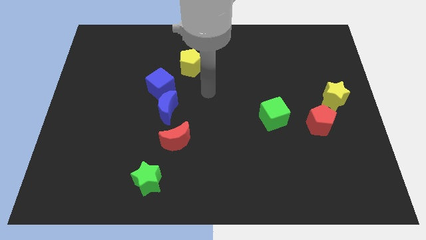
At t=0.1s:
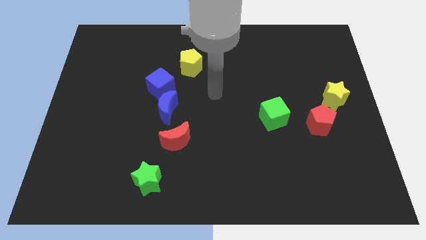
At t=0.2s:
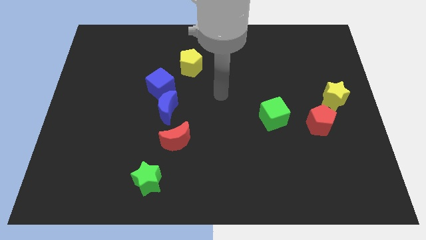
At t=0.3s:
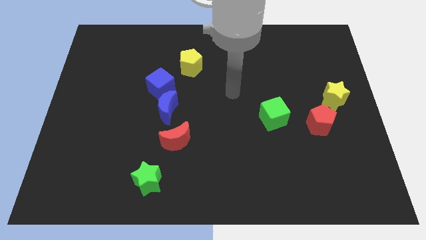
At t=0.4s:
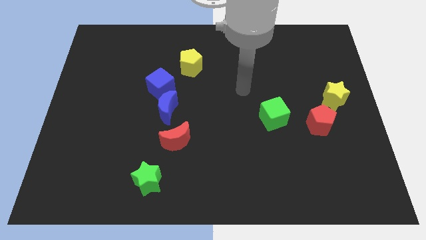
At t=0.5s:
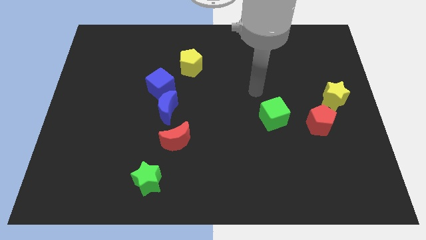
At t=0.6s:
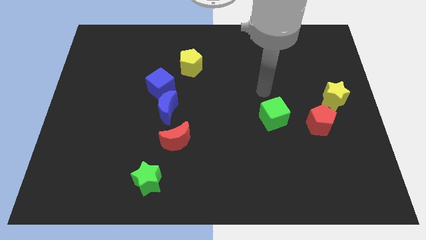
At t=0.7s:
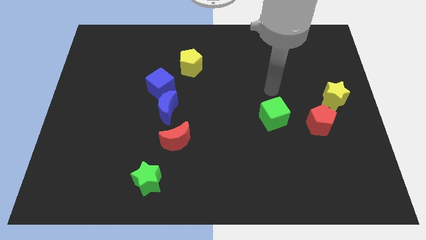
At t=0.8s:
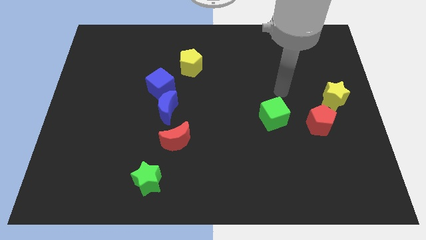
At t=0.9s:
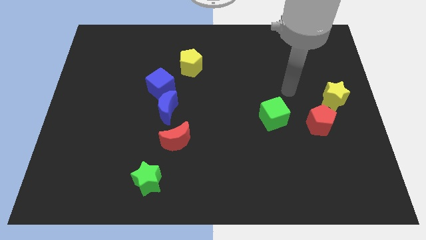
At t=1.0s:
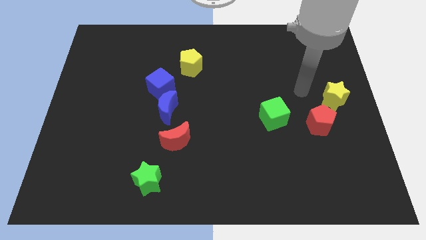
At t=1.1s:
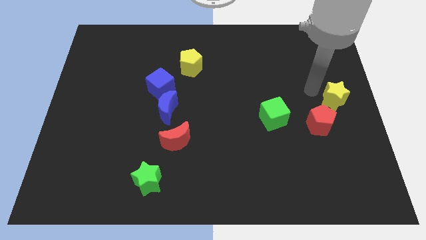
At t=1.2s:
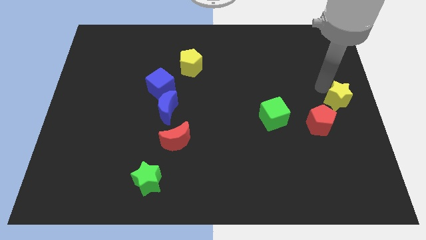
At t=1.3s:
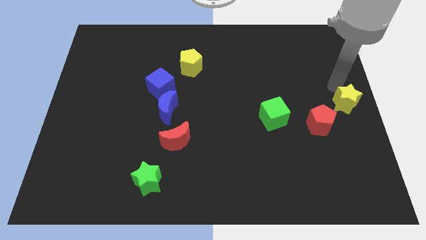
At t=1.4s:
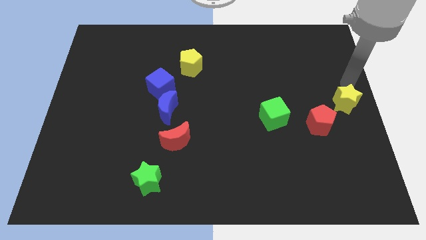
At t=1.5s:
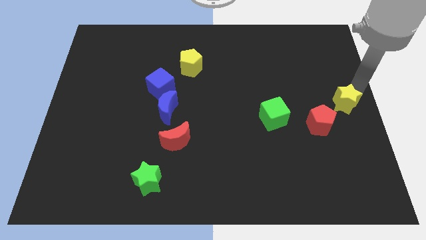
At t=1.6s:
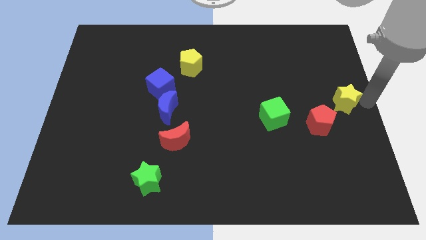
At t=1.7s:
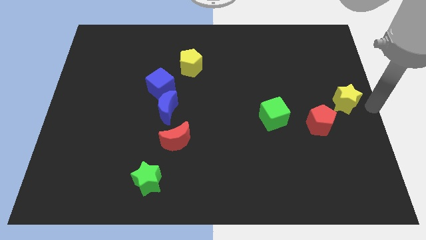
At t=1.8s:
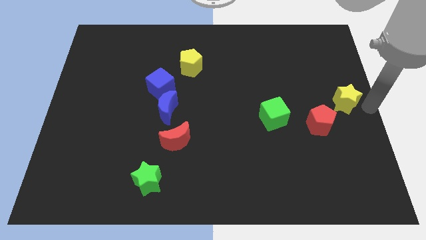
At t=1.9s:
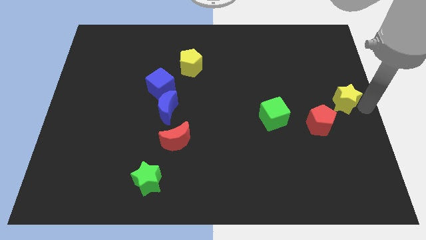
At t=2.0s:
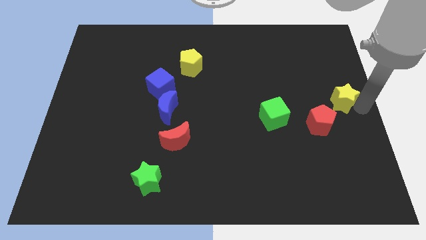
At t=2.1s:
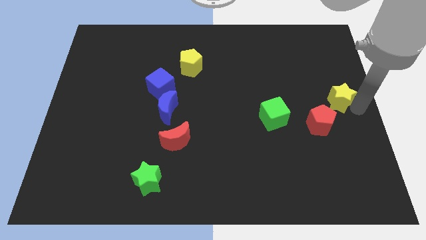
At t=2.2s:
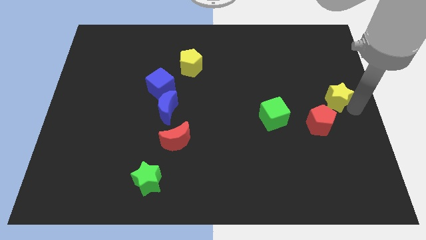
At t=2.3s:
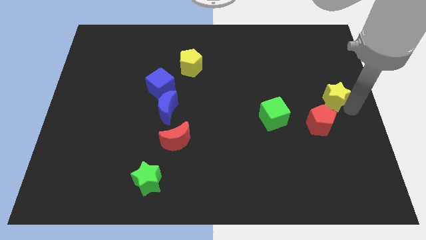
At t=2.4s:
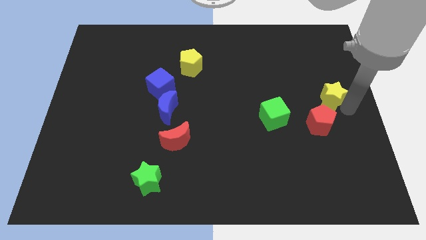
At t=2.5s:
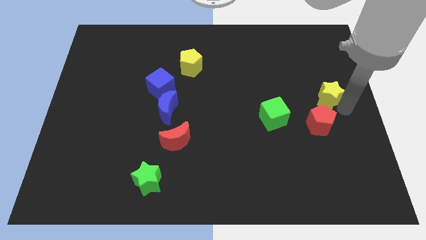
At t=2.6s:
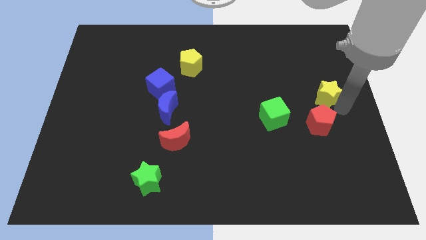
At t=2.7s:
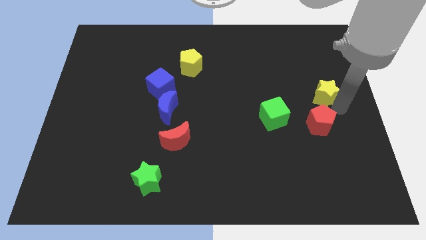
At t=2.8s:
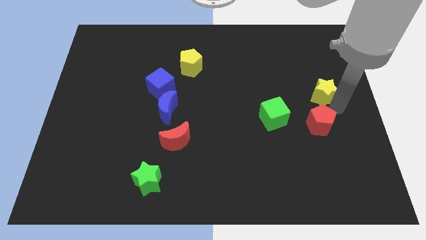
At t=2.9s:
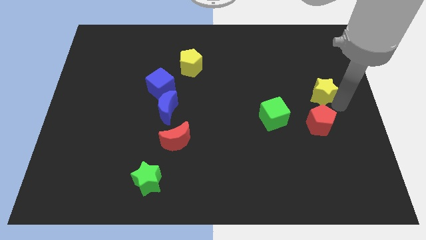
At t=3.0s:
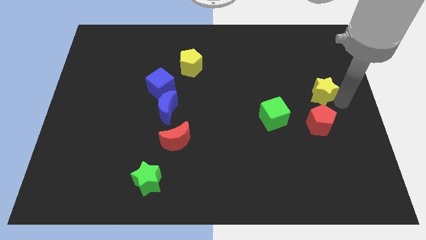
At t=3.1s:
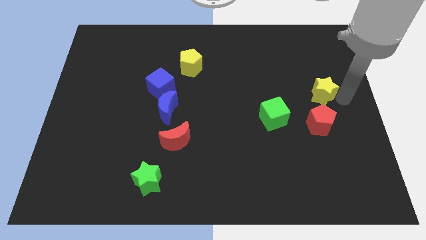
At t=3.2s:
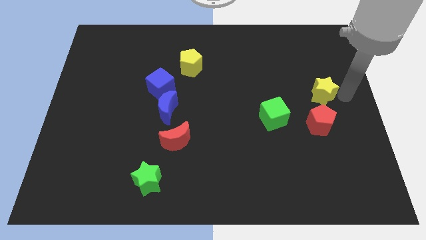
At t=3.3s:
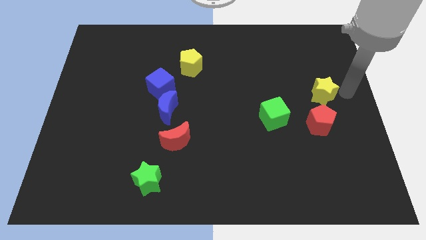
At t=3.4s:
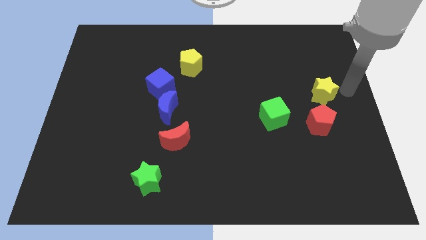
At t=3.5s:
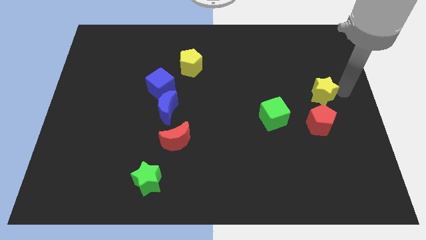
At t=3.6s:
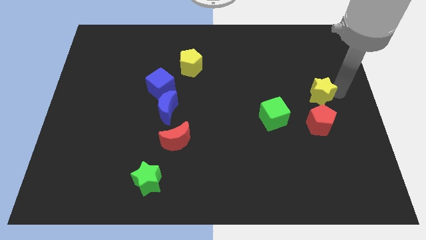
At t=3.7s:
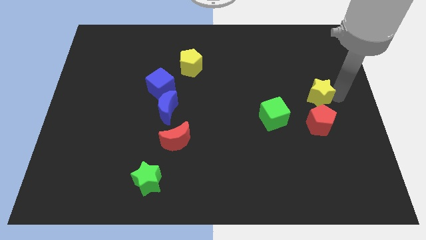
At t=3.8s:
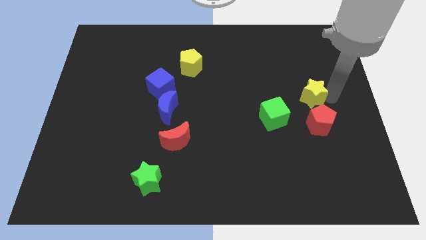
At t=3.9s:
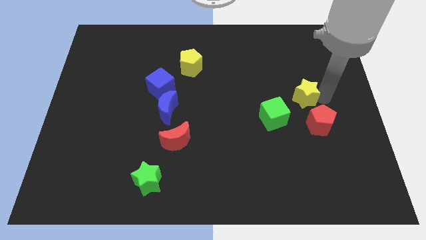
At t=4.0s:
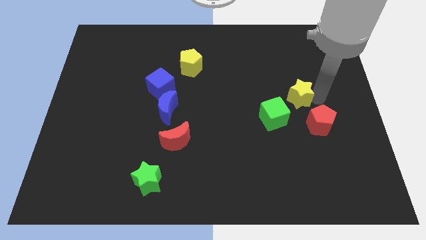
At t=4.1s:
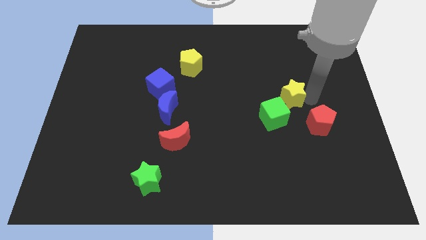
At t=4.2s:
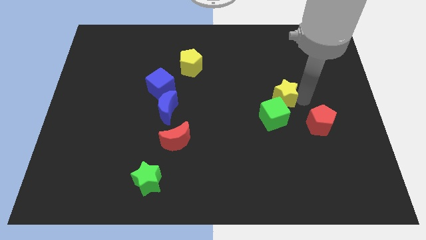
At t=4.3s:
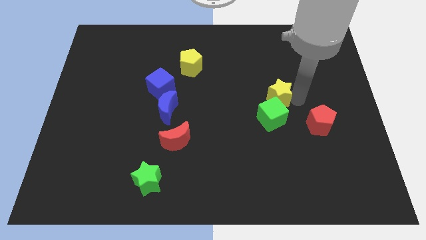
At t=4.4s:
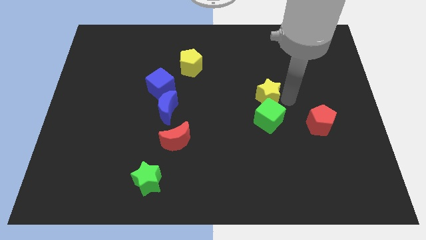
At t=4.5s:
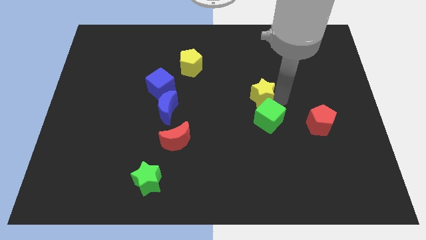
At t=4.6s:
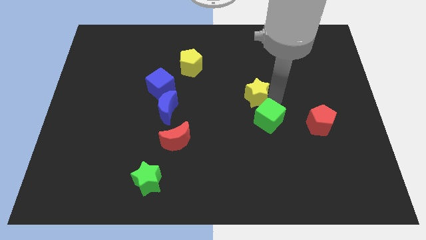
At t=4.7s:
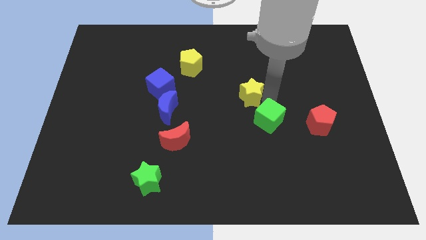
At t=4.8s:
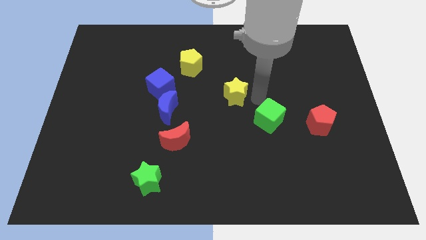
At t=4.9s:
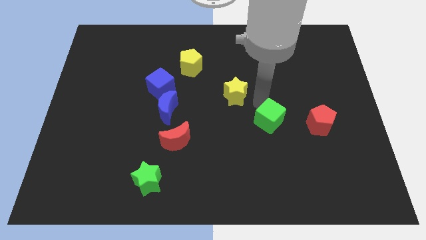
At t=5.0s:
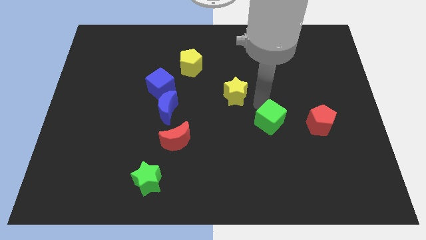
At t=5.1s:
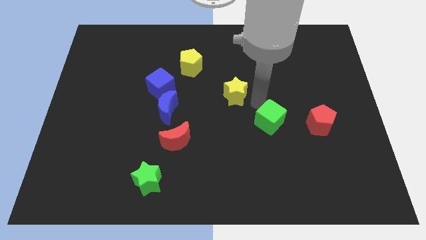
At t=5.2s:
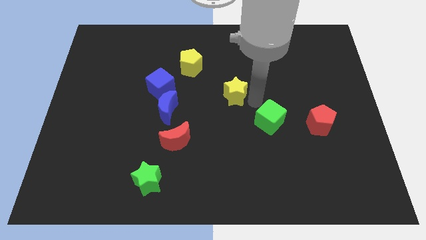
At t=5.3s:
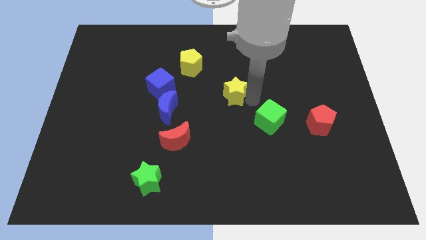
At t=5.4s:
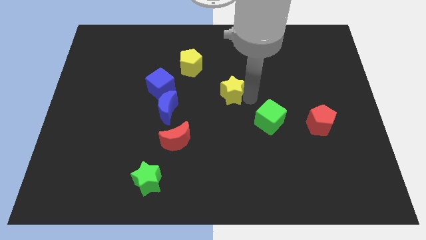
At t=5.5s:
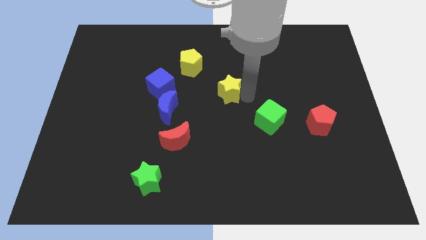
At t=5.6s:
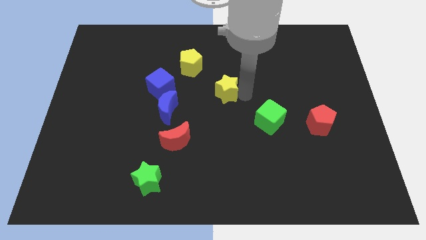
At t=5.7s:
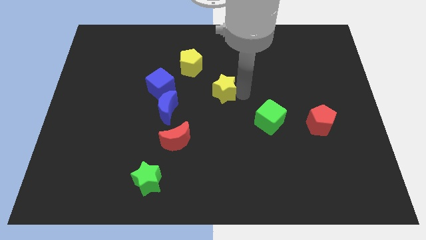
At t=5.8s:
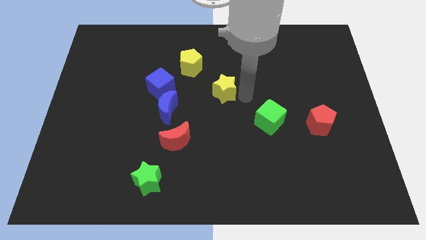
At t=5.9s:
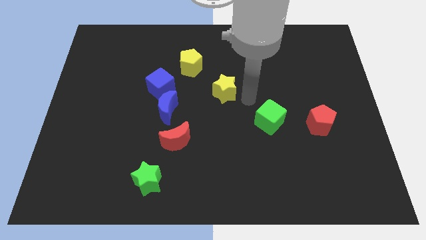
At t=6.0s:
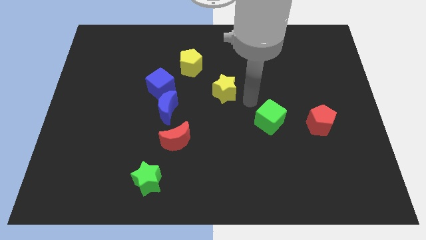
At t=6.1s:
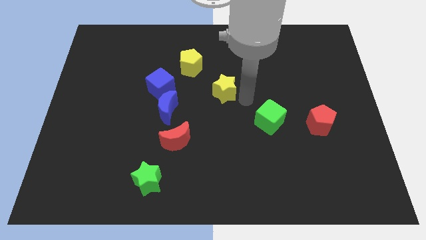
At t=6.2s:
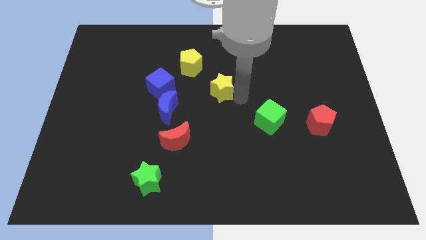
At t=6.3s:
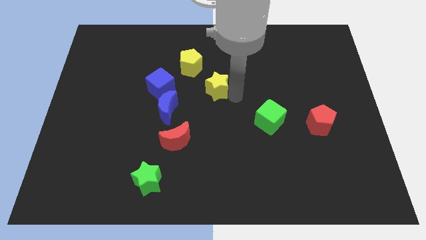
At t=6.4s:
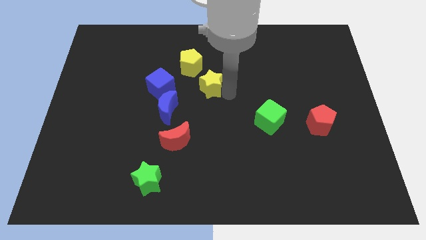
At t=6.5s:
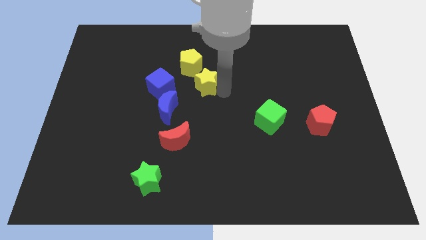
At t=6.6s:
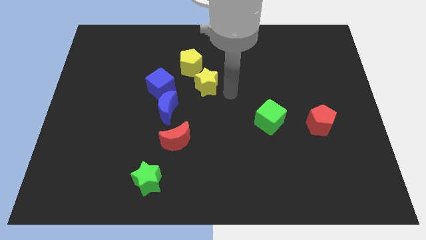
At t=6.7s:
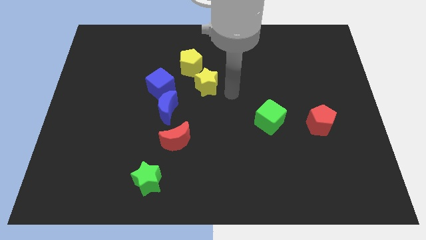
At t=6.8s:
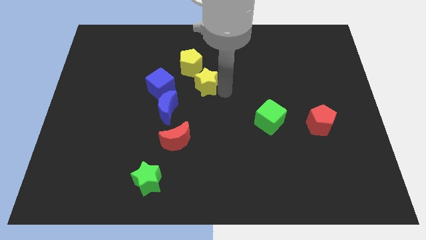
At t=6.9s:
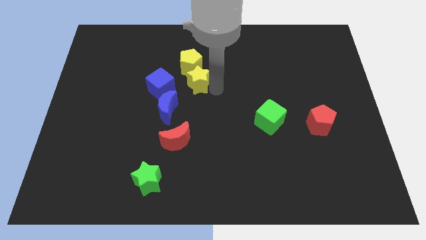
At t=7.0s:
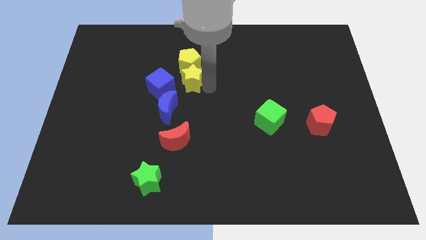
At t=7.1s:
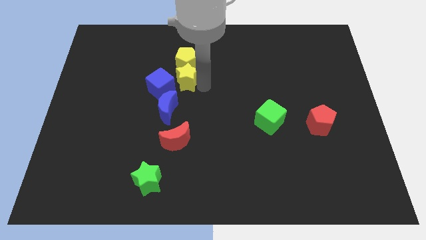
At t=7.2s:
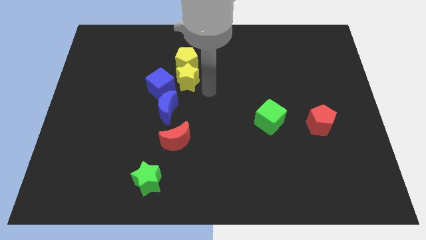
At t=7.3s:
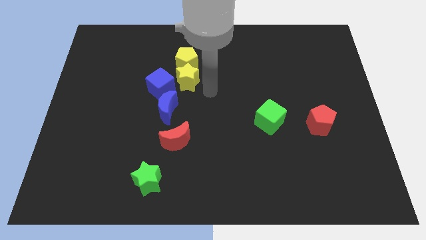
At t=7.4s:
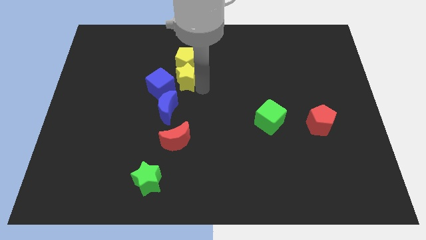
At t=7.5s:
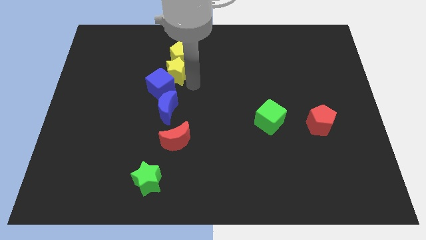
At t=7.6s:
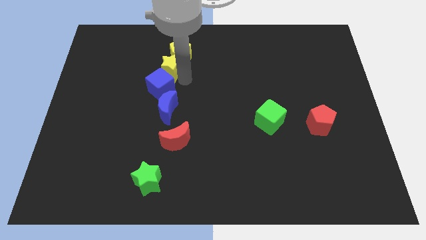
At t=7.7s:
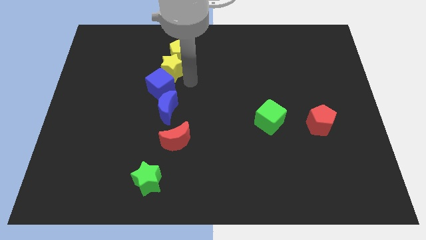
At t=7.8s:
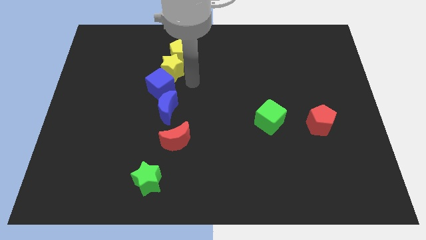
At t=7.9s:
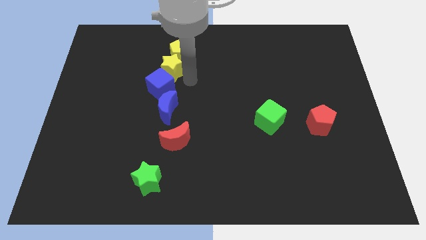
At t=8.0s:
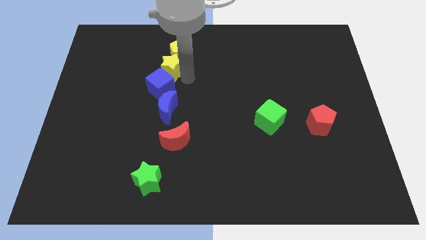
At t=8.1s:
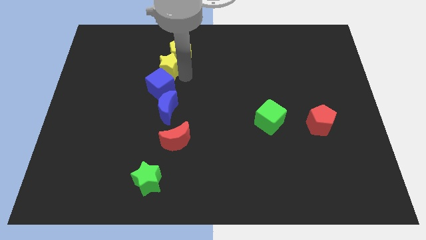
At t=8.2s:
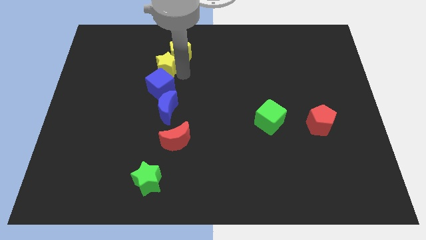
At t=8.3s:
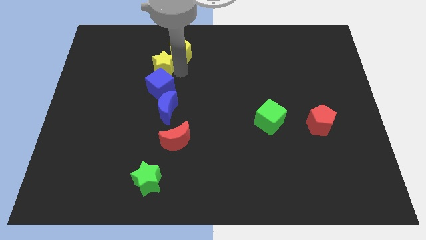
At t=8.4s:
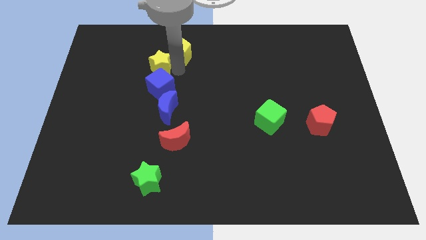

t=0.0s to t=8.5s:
push the yellow star to the left side of the yellow pentagon
